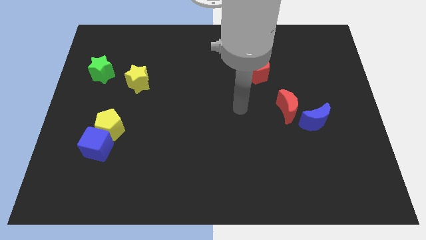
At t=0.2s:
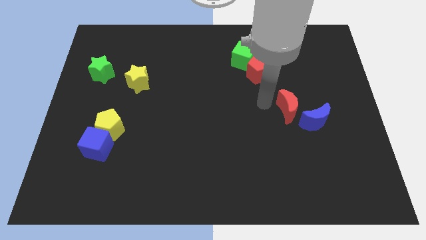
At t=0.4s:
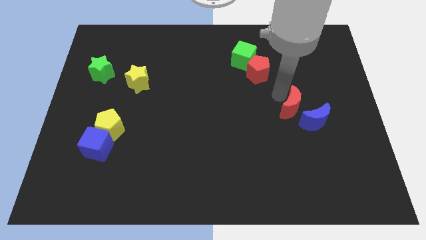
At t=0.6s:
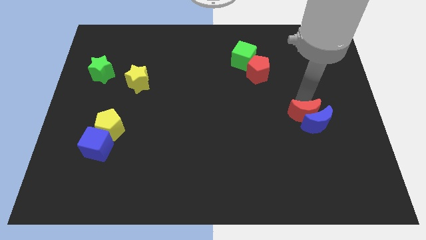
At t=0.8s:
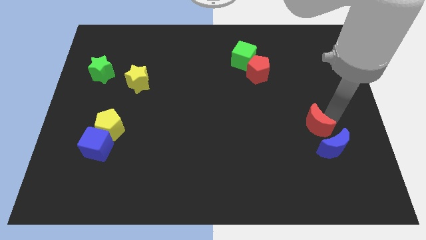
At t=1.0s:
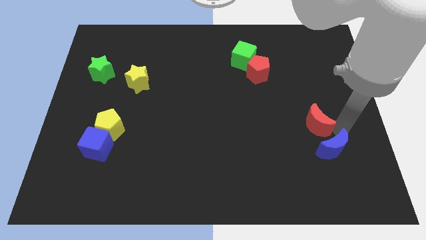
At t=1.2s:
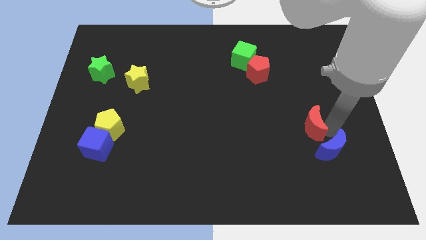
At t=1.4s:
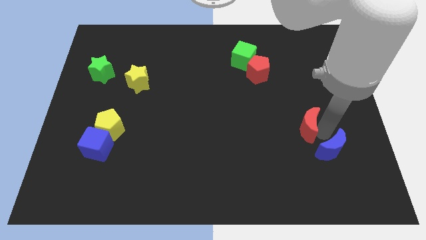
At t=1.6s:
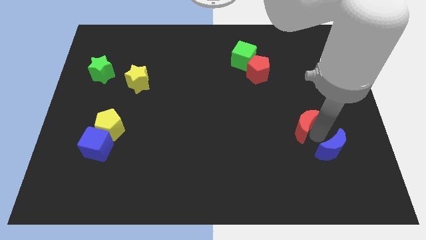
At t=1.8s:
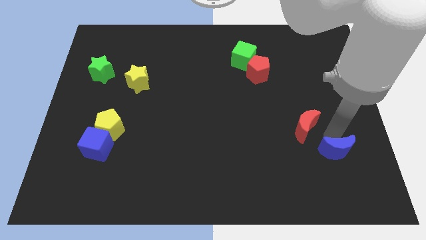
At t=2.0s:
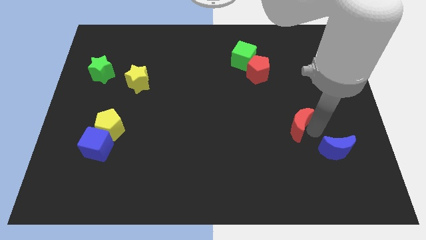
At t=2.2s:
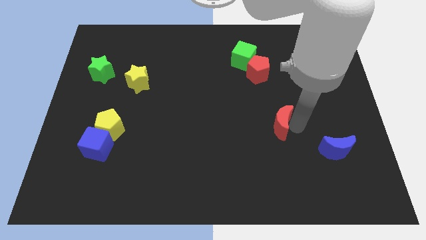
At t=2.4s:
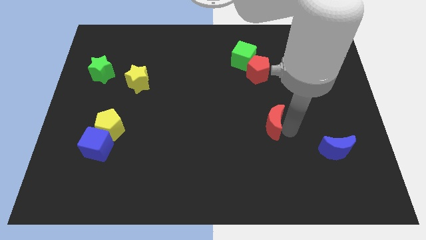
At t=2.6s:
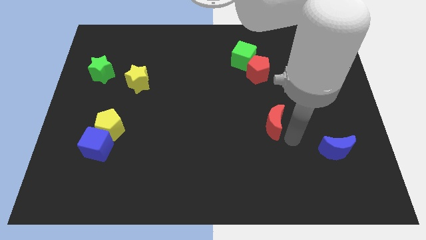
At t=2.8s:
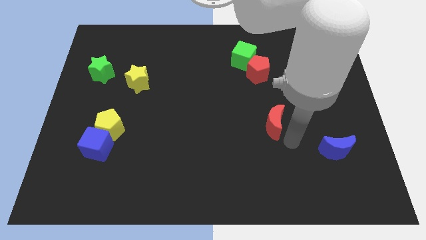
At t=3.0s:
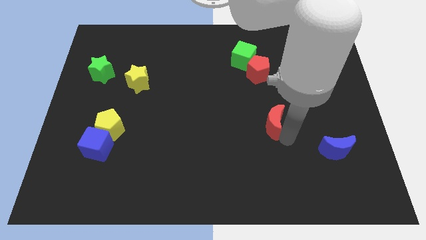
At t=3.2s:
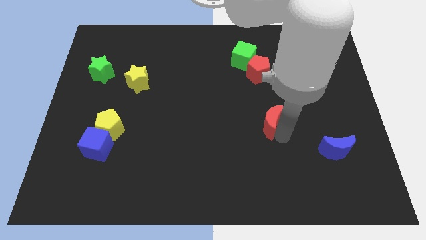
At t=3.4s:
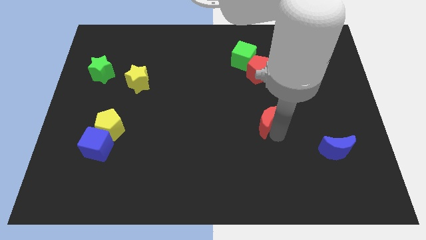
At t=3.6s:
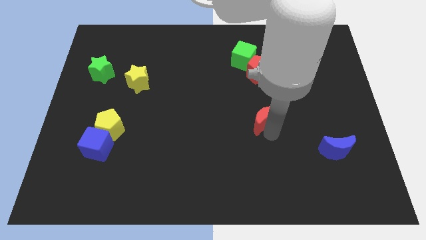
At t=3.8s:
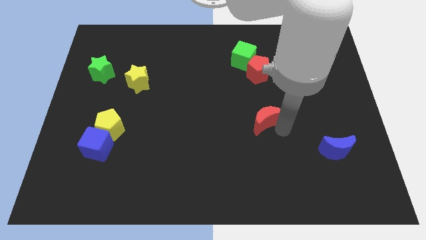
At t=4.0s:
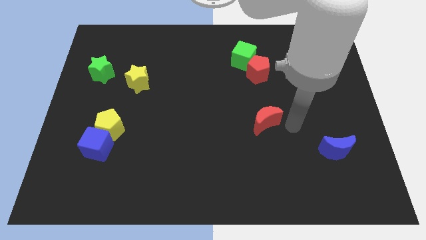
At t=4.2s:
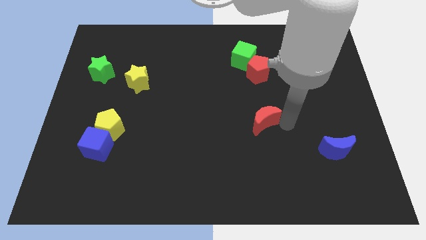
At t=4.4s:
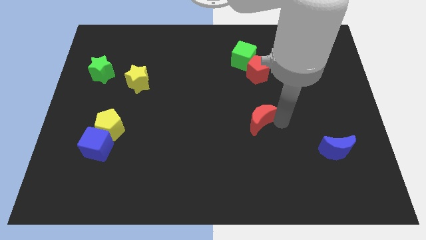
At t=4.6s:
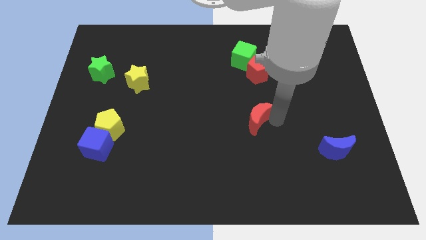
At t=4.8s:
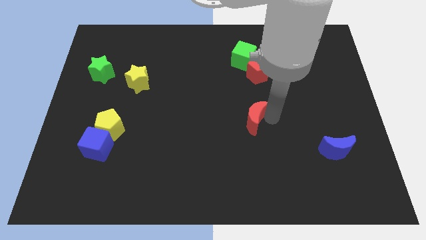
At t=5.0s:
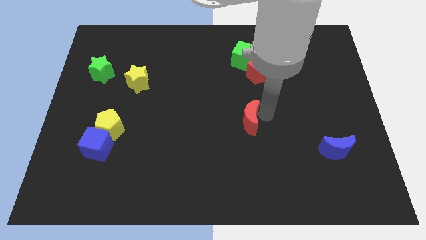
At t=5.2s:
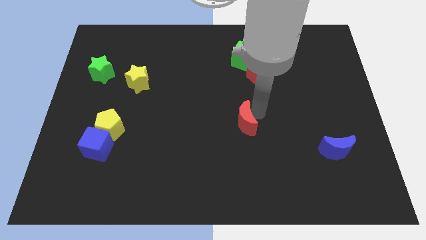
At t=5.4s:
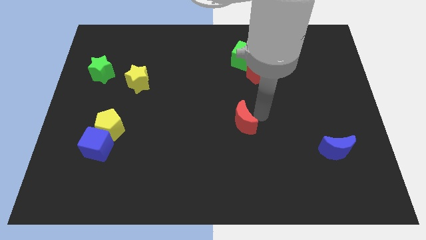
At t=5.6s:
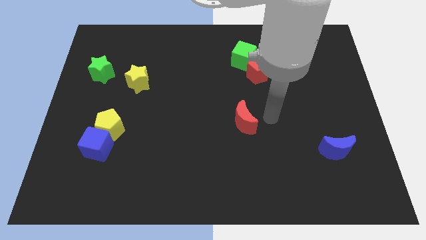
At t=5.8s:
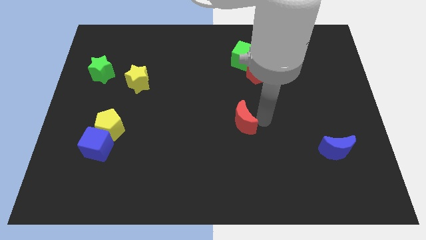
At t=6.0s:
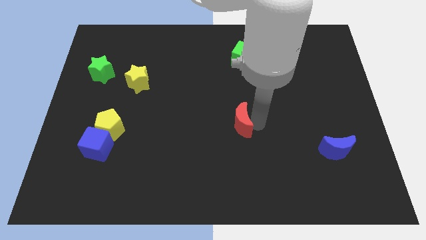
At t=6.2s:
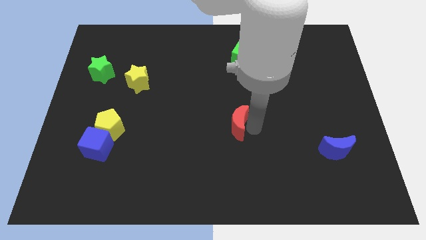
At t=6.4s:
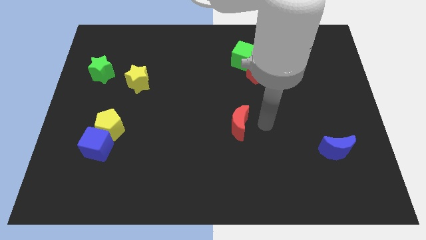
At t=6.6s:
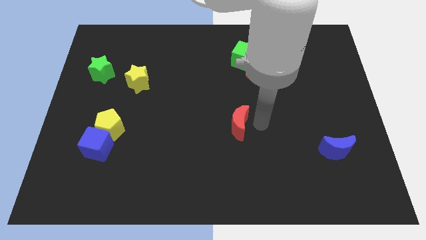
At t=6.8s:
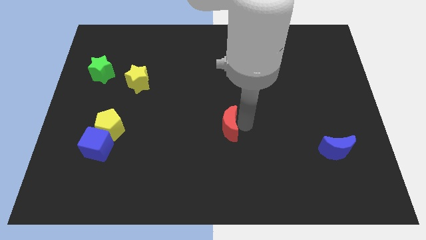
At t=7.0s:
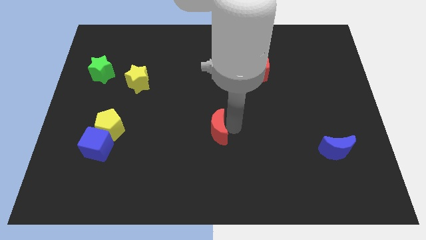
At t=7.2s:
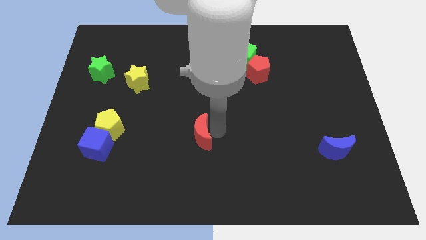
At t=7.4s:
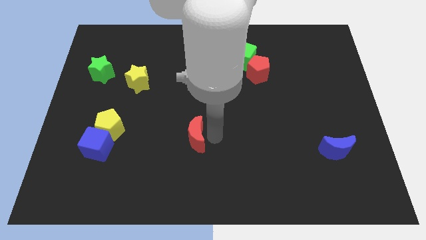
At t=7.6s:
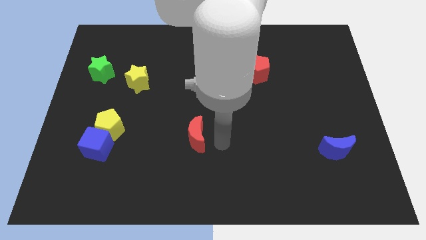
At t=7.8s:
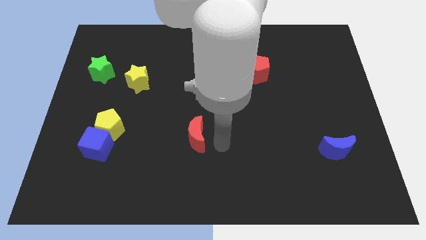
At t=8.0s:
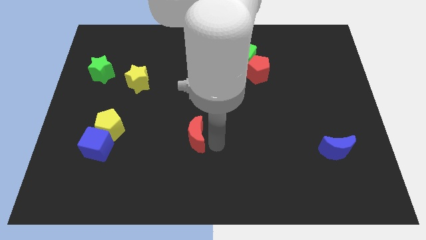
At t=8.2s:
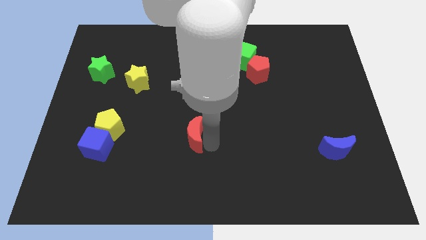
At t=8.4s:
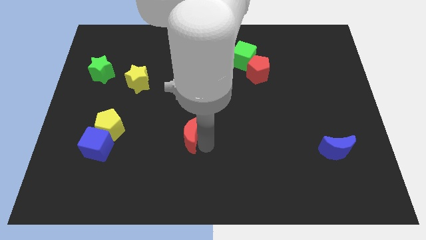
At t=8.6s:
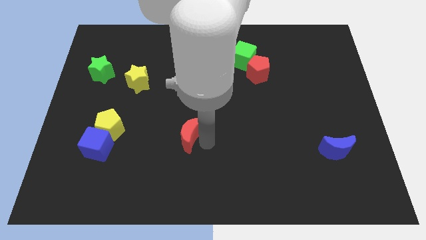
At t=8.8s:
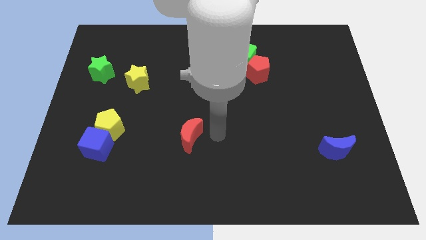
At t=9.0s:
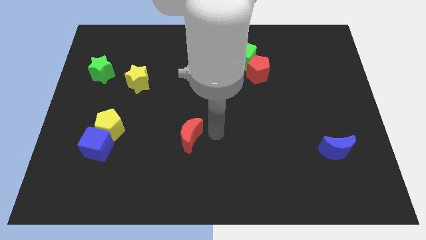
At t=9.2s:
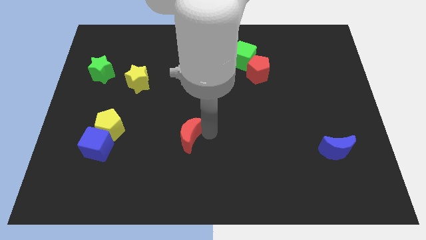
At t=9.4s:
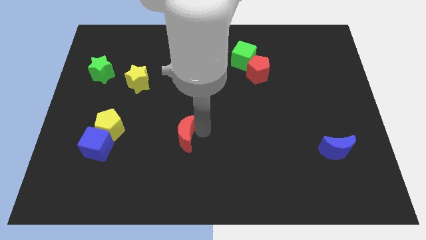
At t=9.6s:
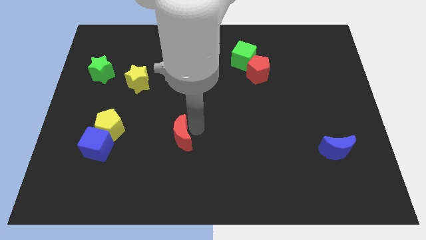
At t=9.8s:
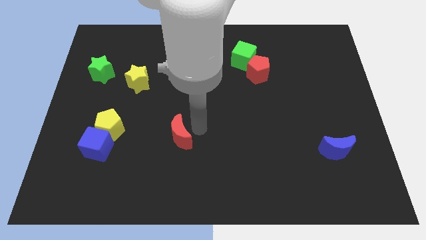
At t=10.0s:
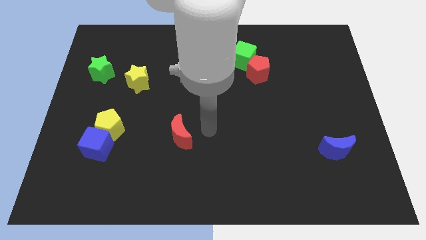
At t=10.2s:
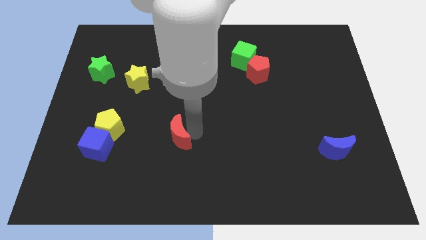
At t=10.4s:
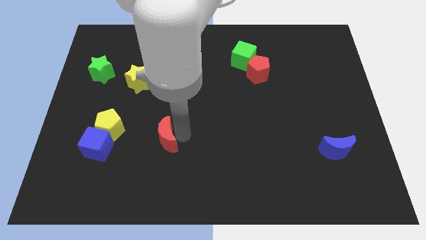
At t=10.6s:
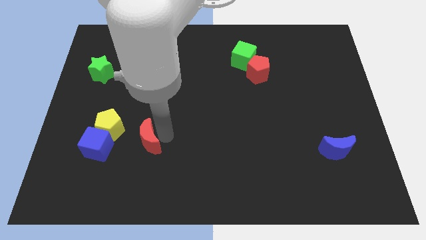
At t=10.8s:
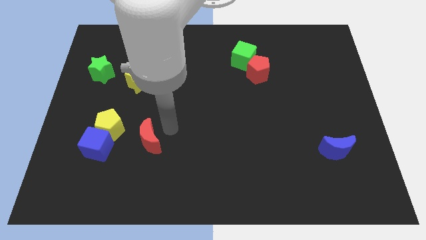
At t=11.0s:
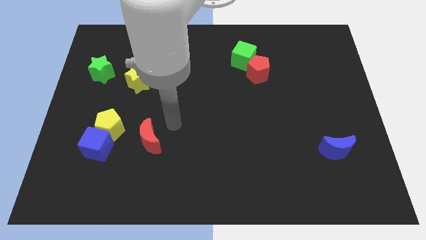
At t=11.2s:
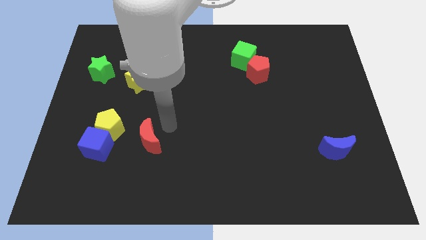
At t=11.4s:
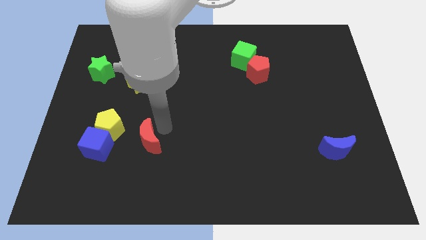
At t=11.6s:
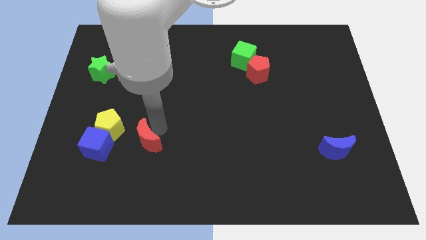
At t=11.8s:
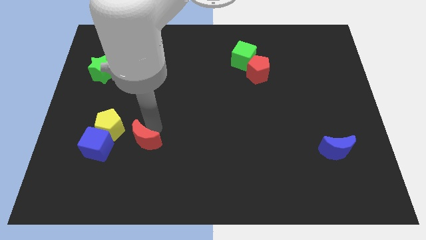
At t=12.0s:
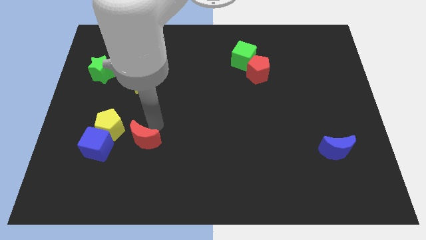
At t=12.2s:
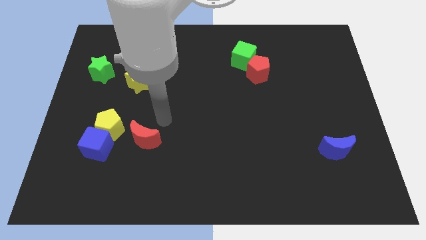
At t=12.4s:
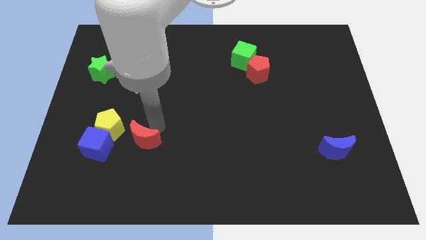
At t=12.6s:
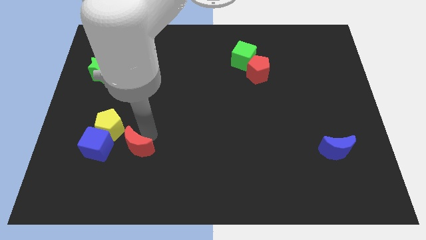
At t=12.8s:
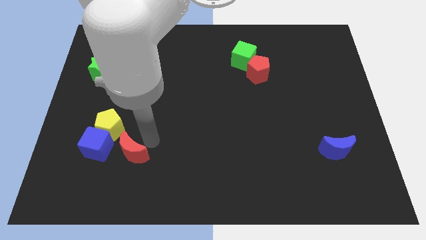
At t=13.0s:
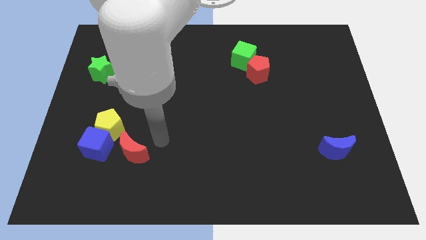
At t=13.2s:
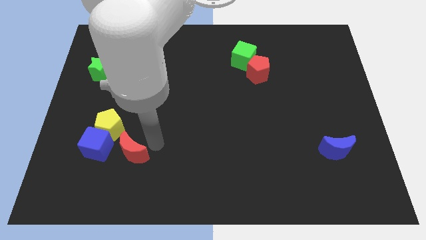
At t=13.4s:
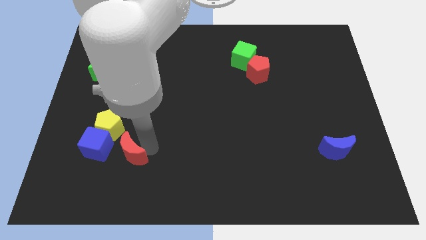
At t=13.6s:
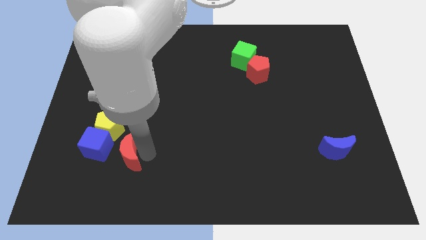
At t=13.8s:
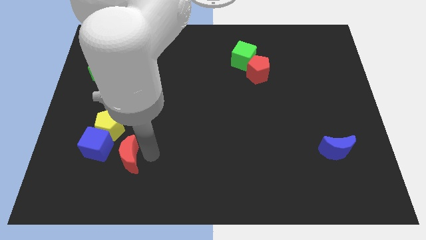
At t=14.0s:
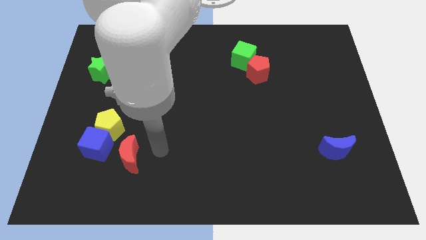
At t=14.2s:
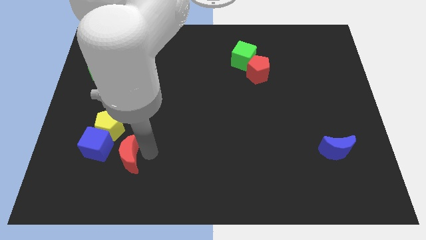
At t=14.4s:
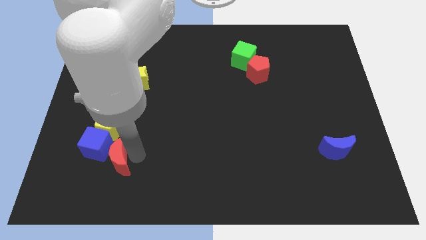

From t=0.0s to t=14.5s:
push the red moon next to the blue cube
